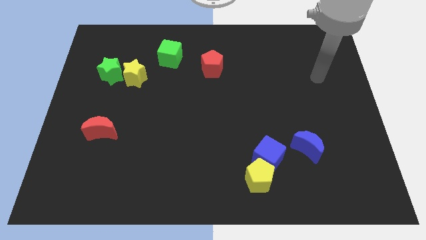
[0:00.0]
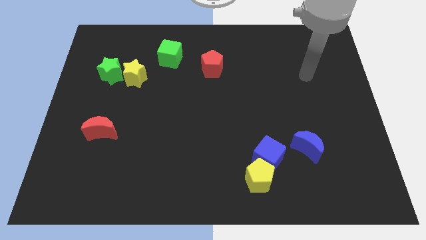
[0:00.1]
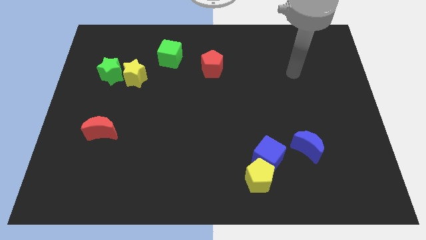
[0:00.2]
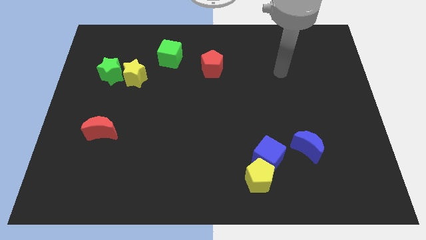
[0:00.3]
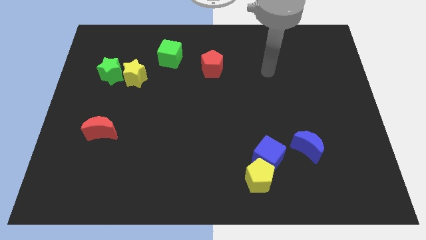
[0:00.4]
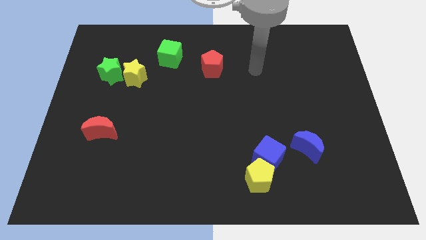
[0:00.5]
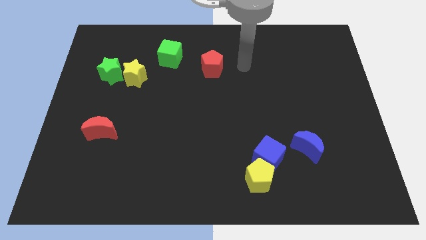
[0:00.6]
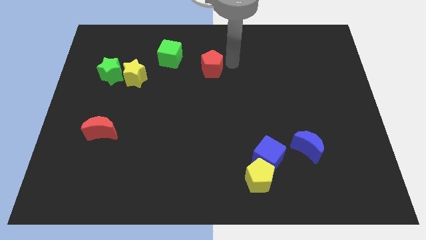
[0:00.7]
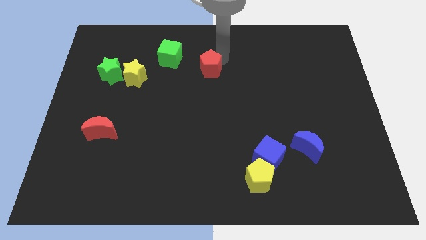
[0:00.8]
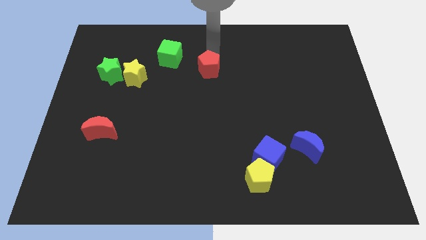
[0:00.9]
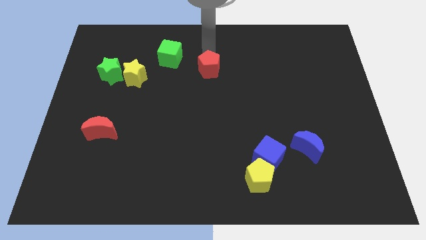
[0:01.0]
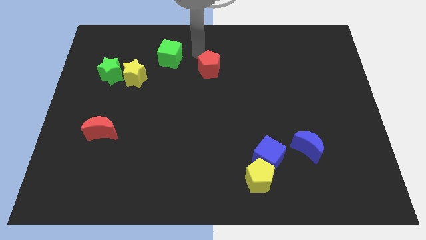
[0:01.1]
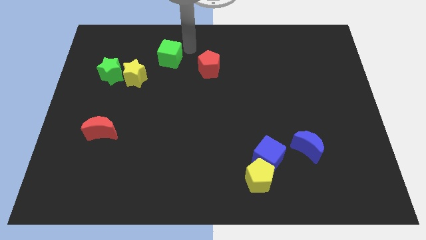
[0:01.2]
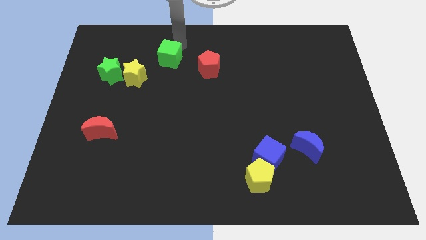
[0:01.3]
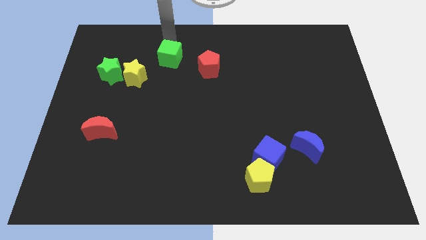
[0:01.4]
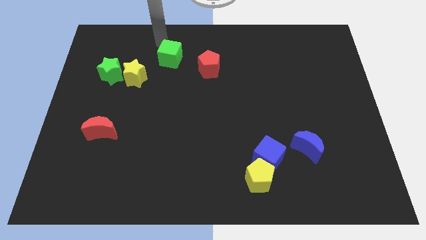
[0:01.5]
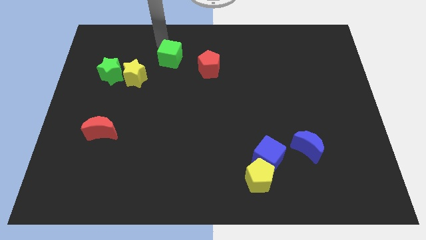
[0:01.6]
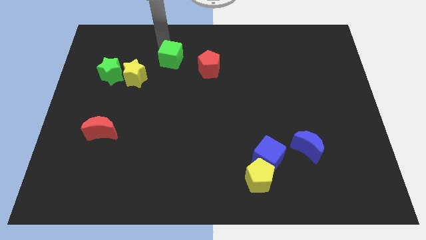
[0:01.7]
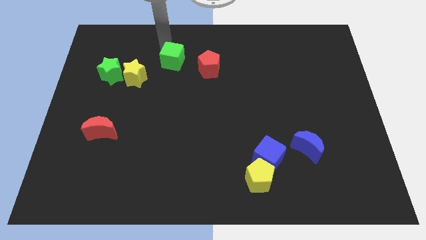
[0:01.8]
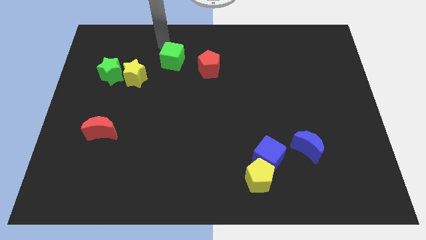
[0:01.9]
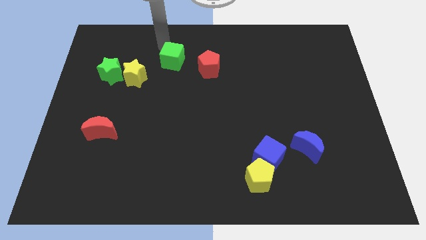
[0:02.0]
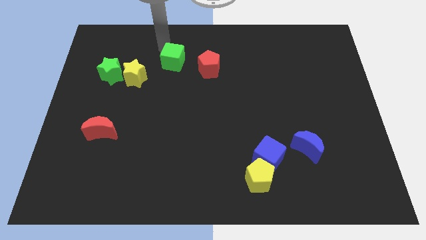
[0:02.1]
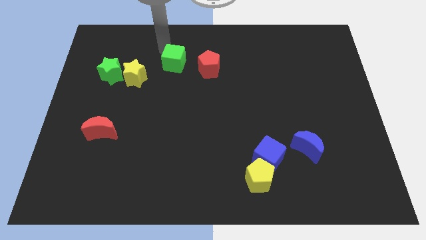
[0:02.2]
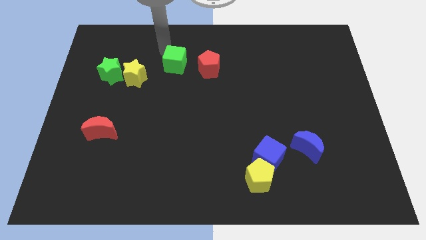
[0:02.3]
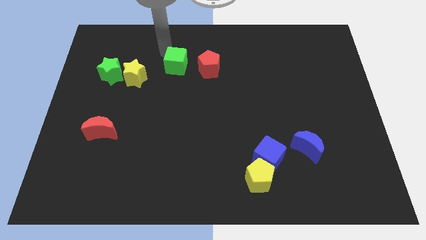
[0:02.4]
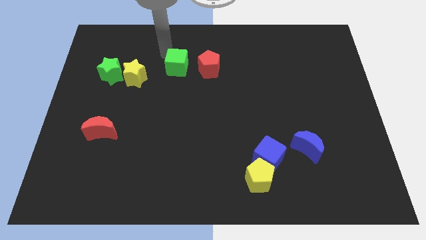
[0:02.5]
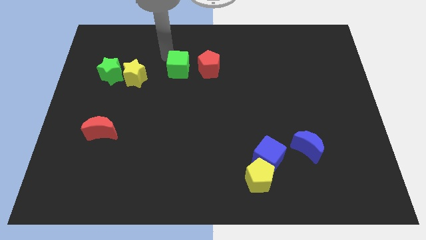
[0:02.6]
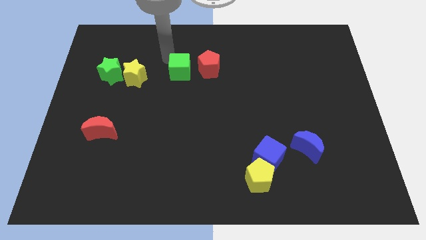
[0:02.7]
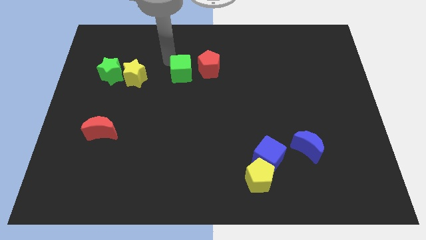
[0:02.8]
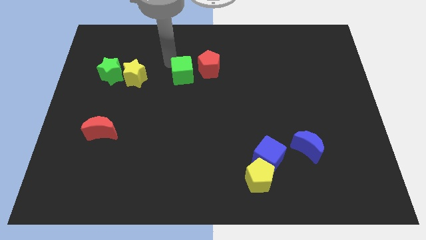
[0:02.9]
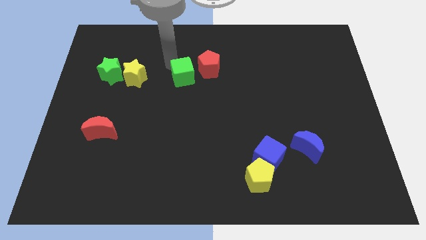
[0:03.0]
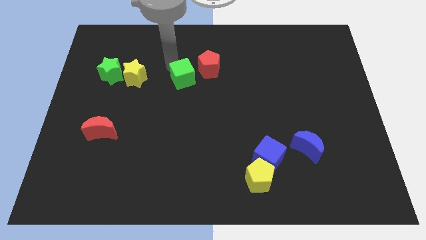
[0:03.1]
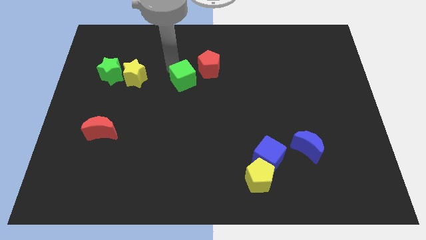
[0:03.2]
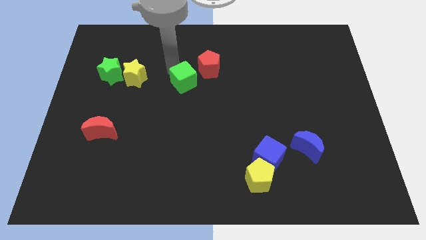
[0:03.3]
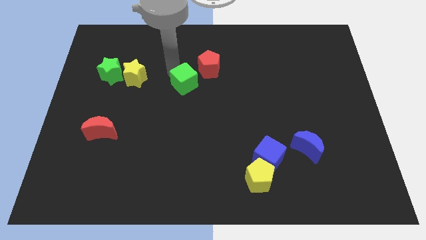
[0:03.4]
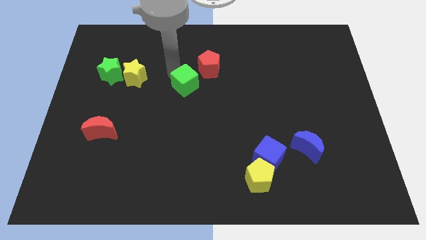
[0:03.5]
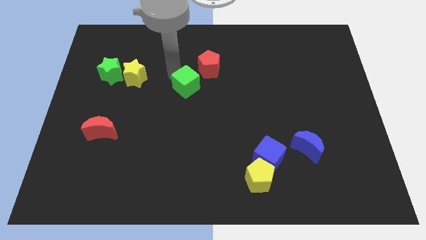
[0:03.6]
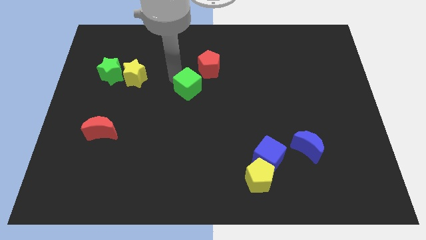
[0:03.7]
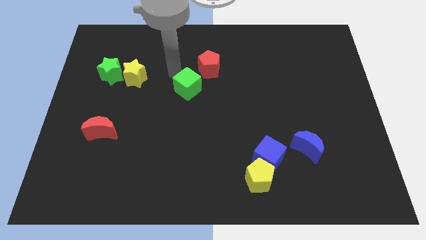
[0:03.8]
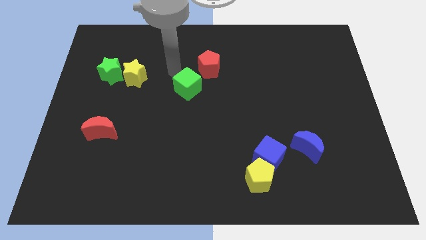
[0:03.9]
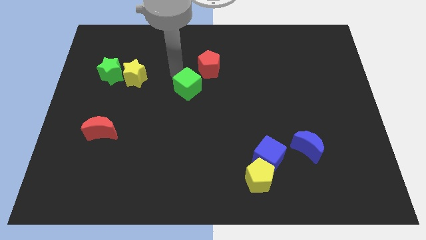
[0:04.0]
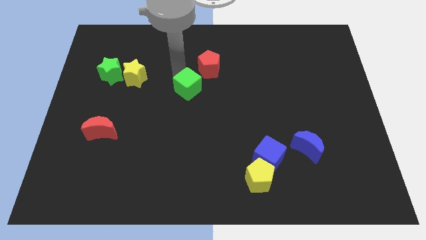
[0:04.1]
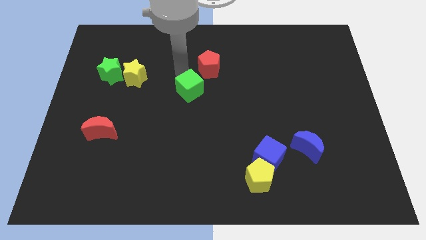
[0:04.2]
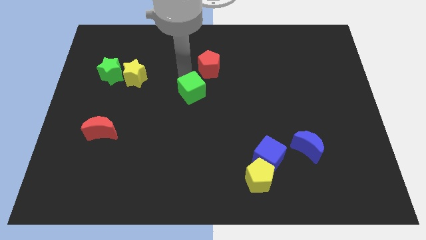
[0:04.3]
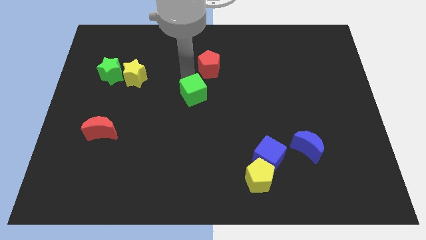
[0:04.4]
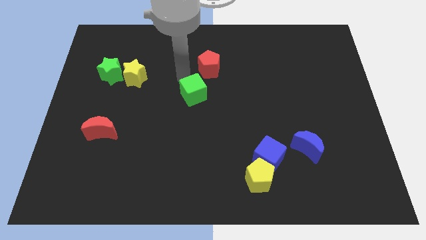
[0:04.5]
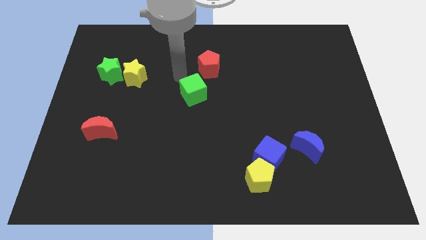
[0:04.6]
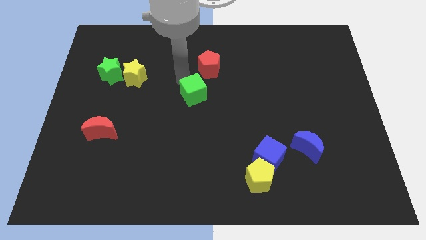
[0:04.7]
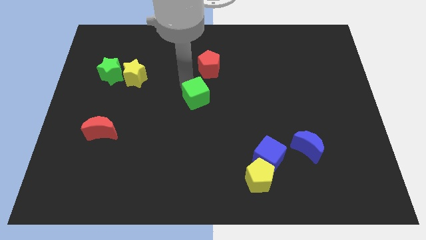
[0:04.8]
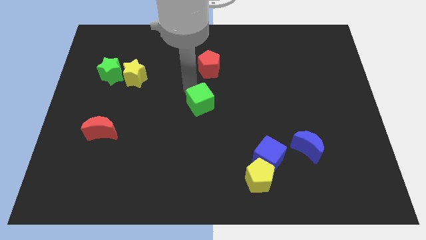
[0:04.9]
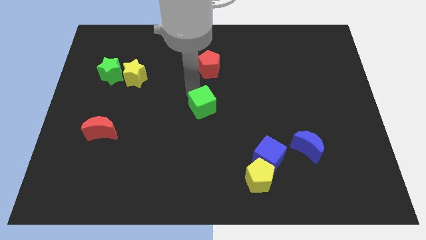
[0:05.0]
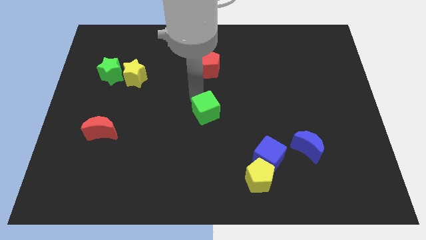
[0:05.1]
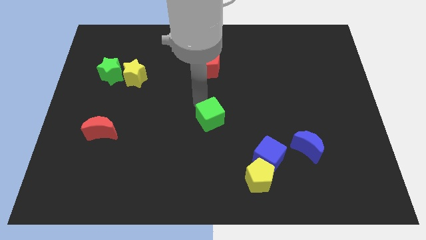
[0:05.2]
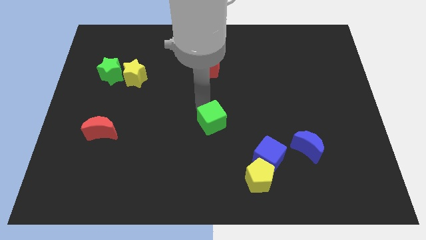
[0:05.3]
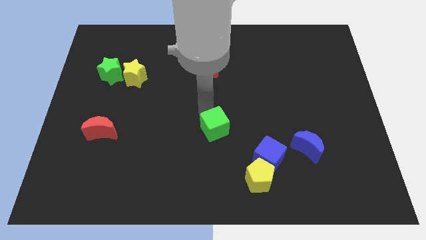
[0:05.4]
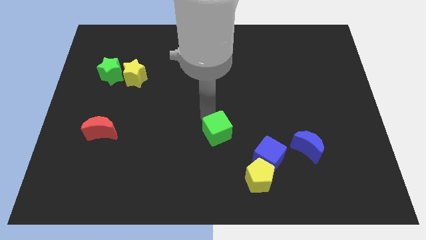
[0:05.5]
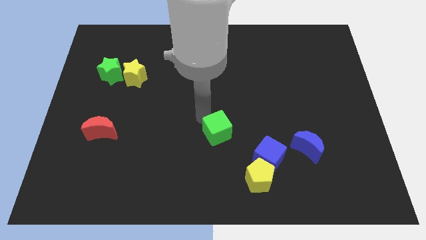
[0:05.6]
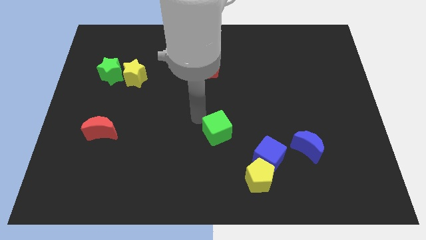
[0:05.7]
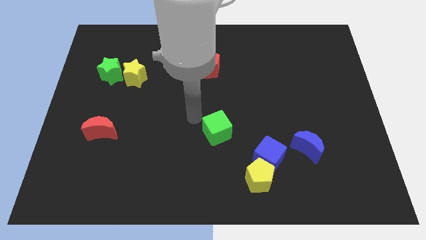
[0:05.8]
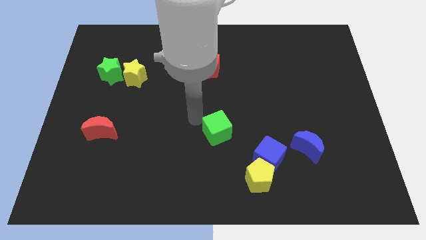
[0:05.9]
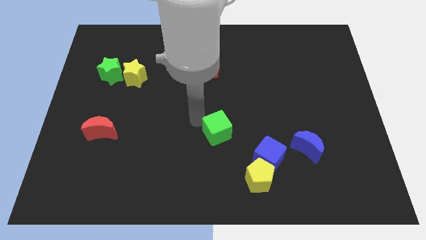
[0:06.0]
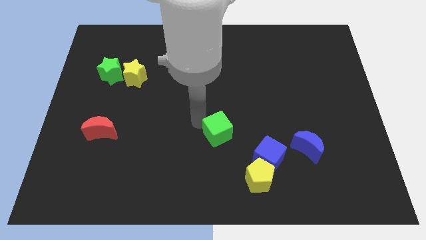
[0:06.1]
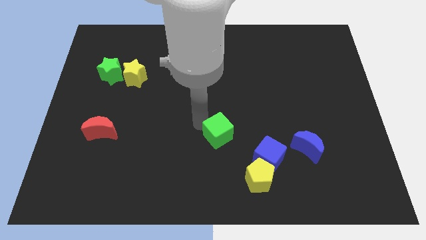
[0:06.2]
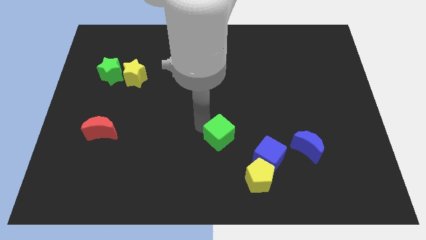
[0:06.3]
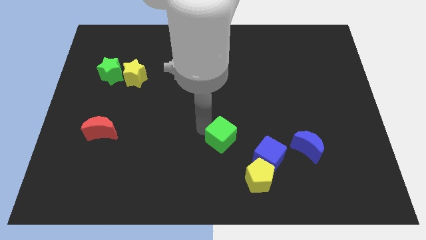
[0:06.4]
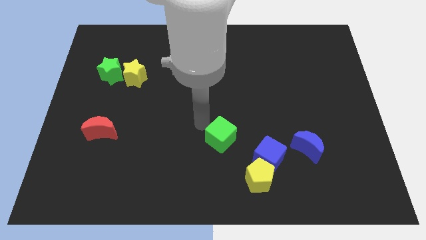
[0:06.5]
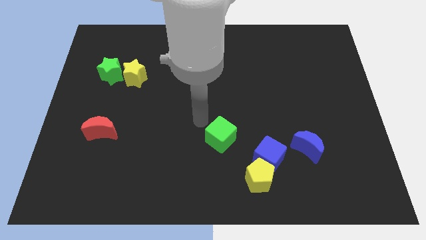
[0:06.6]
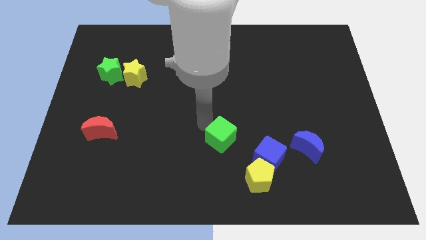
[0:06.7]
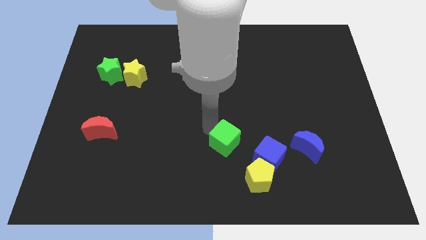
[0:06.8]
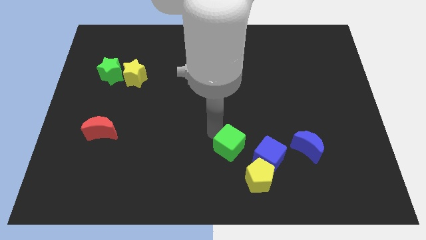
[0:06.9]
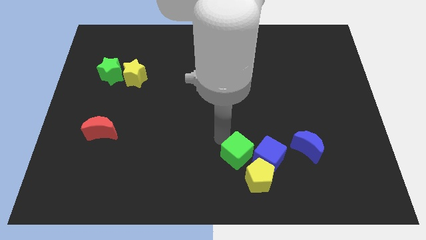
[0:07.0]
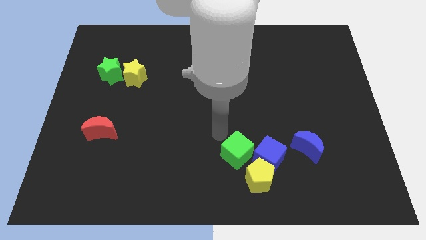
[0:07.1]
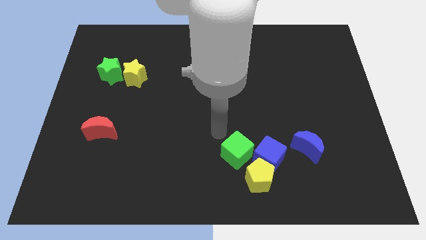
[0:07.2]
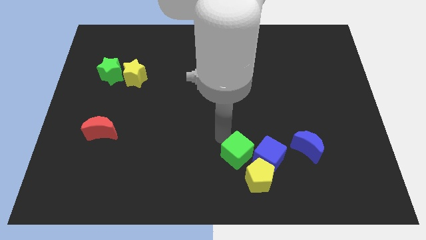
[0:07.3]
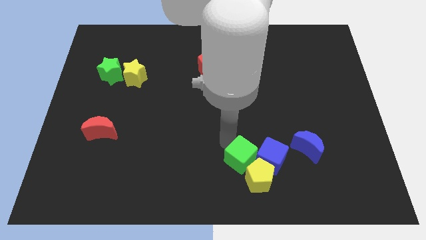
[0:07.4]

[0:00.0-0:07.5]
move the green cube close to the yellow pentagon
